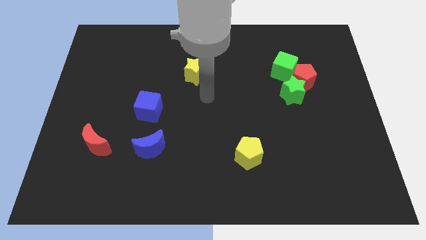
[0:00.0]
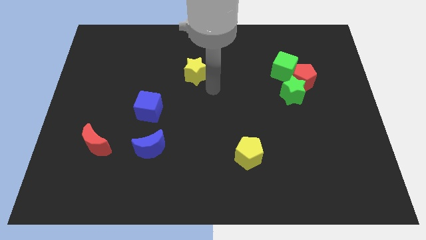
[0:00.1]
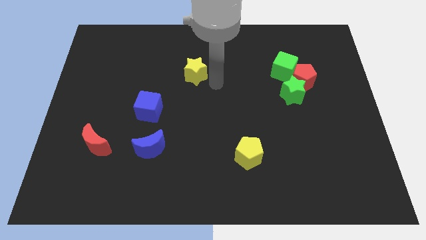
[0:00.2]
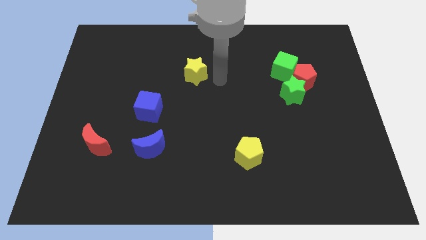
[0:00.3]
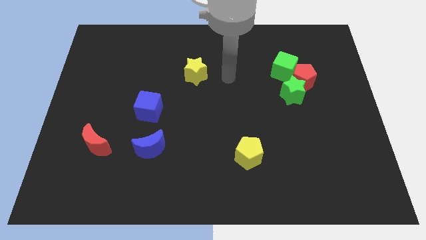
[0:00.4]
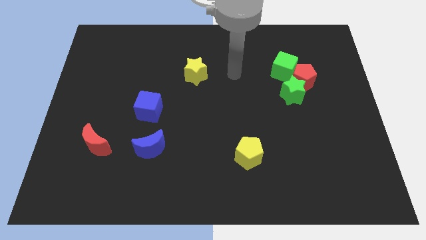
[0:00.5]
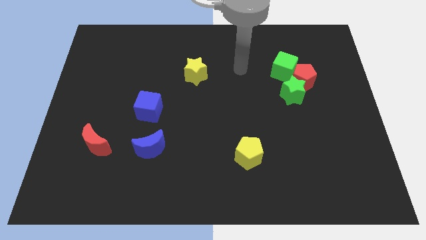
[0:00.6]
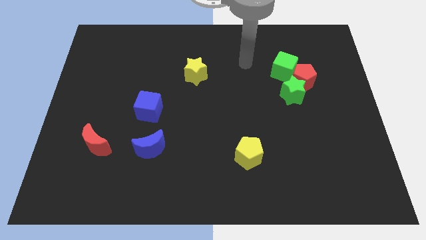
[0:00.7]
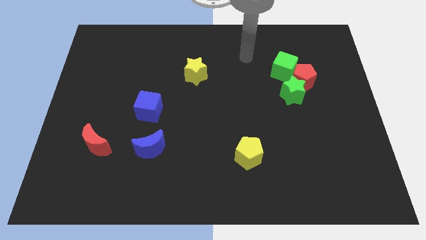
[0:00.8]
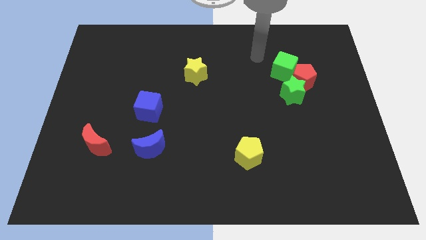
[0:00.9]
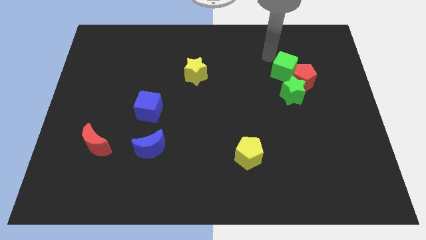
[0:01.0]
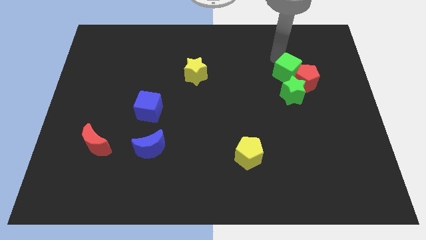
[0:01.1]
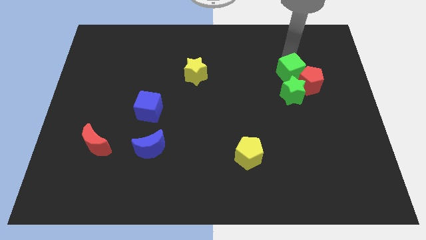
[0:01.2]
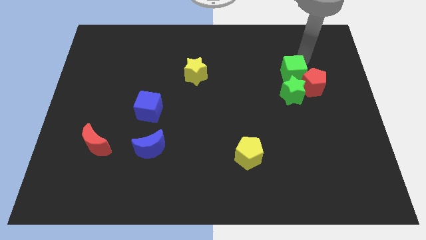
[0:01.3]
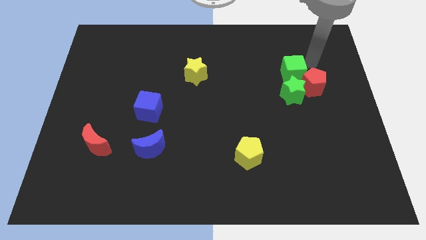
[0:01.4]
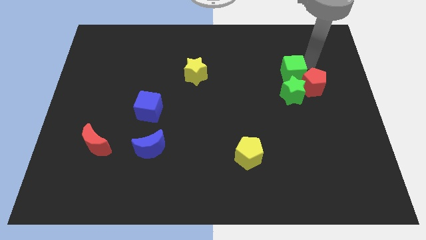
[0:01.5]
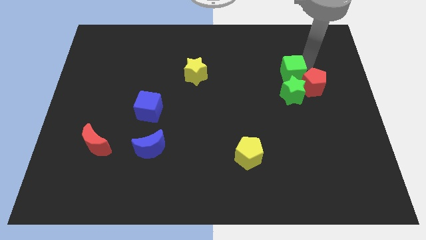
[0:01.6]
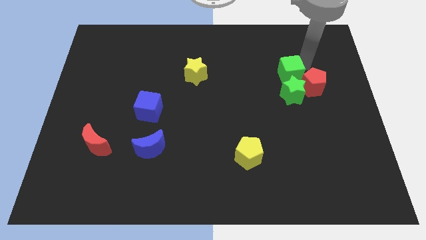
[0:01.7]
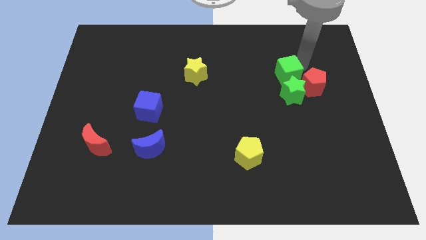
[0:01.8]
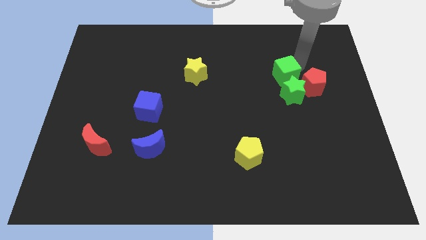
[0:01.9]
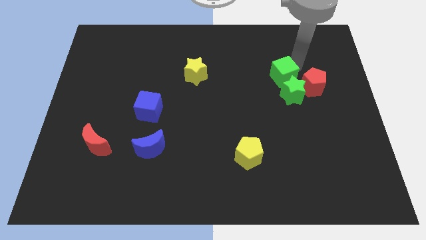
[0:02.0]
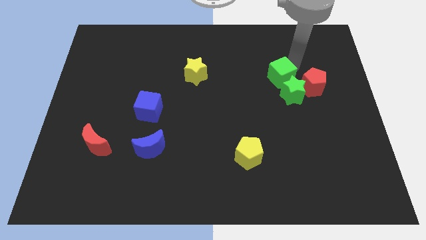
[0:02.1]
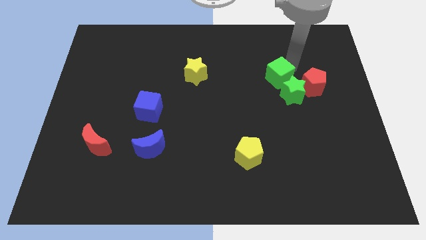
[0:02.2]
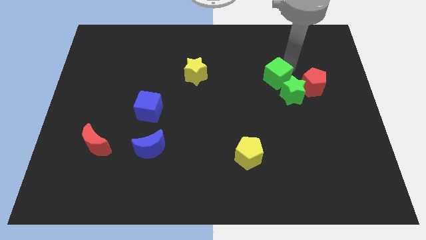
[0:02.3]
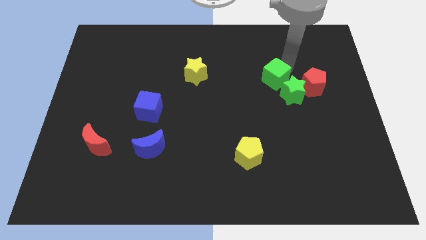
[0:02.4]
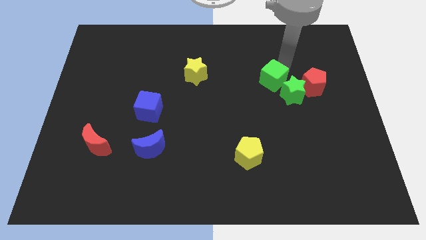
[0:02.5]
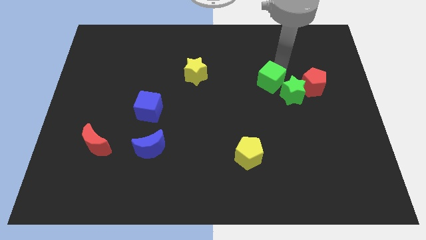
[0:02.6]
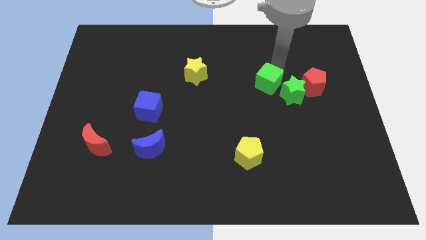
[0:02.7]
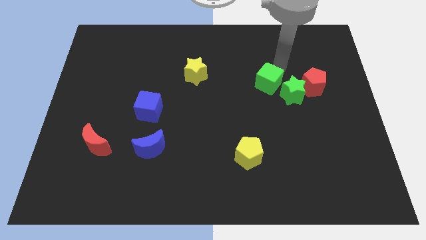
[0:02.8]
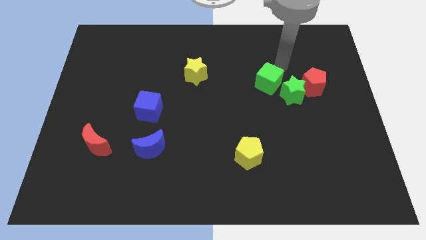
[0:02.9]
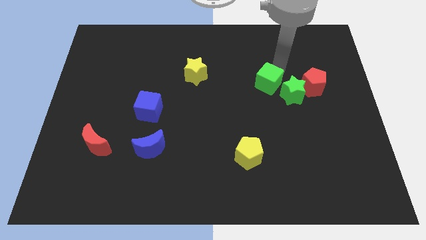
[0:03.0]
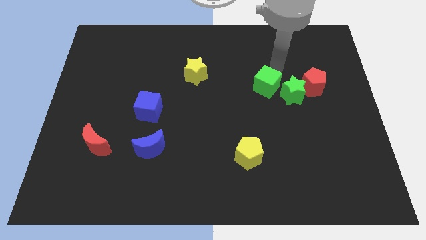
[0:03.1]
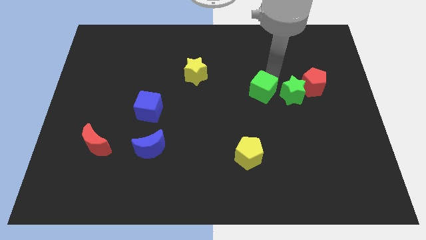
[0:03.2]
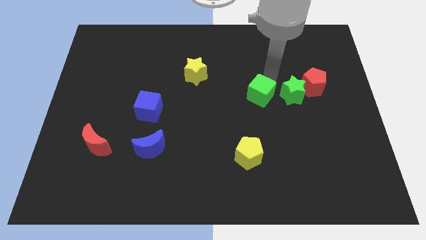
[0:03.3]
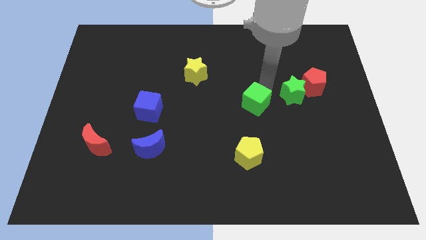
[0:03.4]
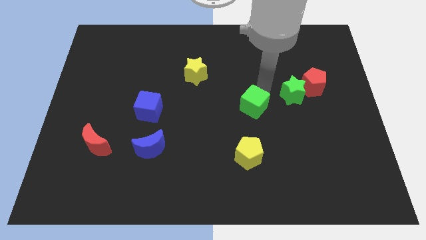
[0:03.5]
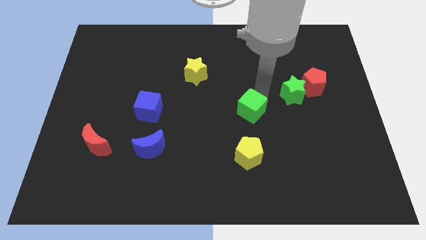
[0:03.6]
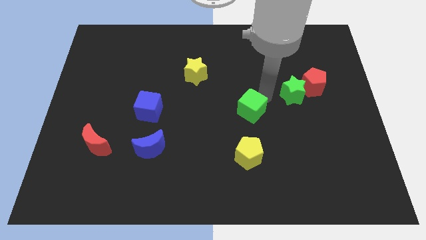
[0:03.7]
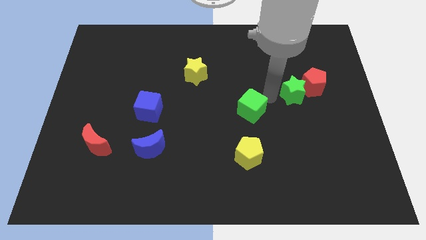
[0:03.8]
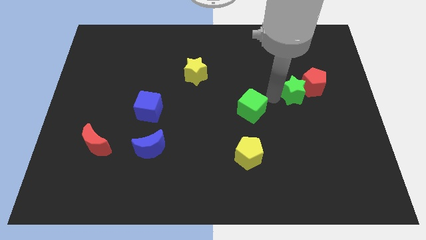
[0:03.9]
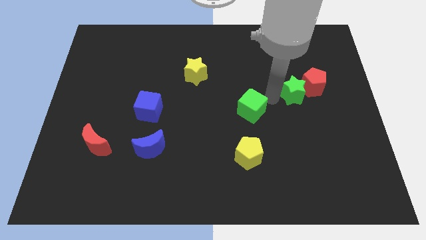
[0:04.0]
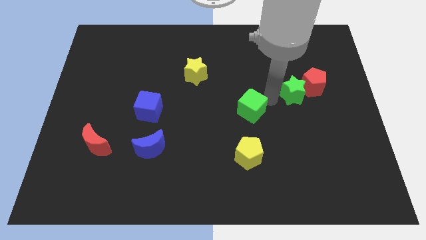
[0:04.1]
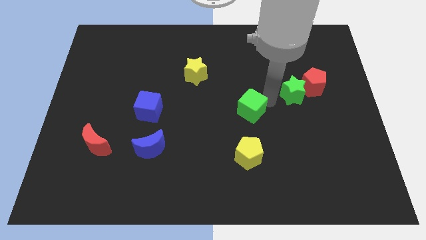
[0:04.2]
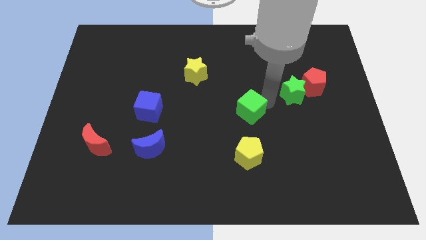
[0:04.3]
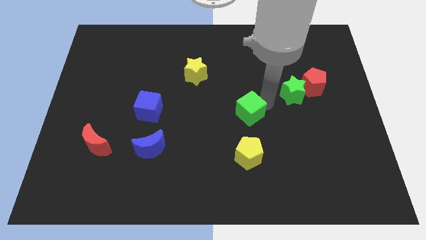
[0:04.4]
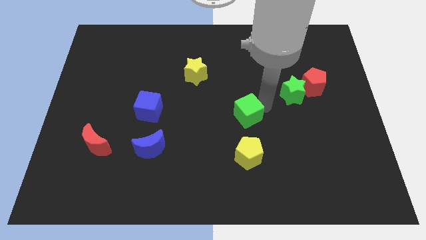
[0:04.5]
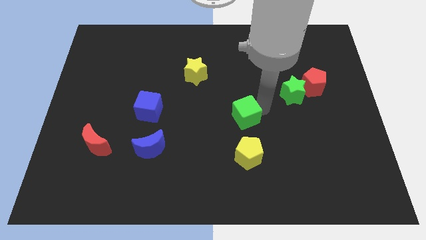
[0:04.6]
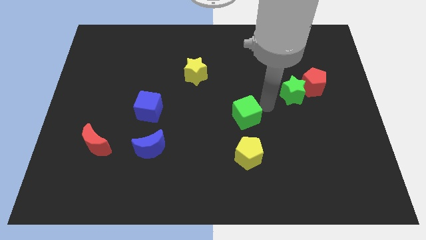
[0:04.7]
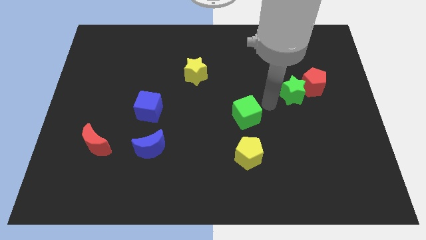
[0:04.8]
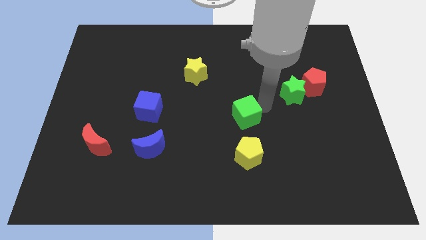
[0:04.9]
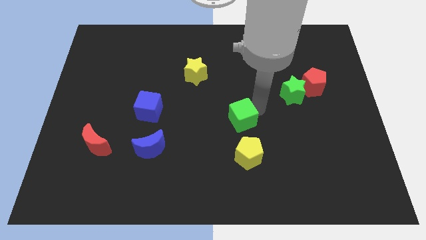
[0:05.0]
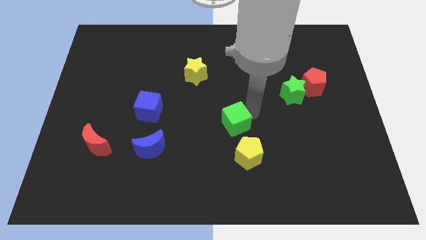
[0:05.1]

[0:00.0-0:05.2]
push the green cube downwards and left

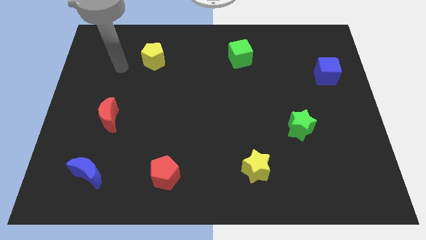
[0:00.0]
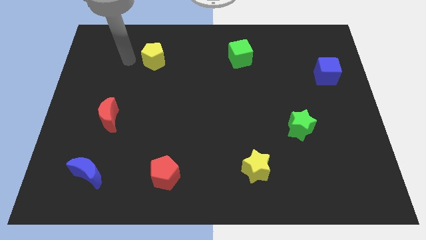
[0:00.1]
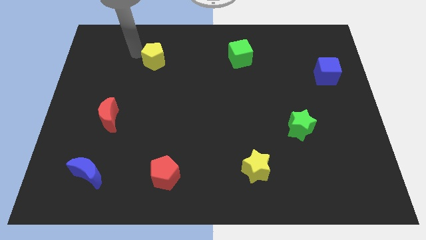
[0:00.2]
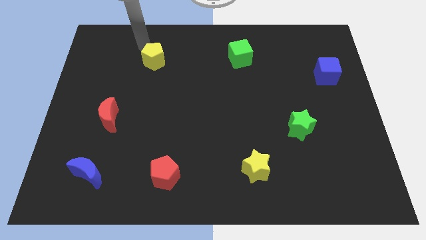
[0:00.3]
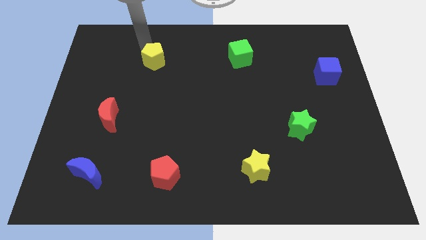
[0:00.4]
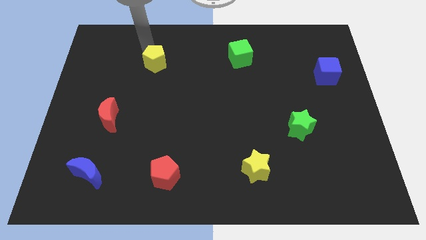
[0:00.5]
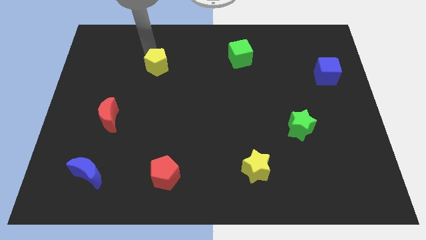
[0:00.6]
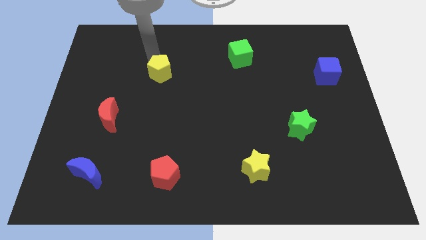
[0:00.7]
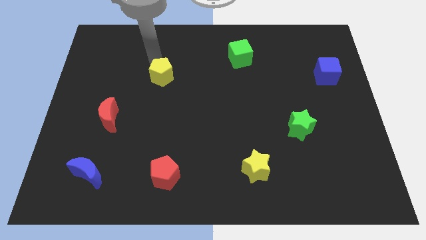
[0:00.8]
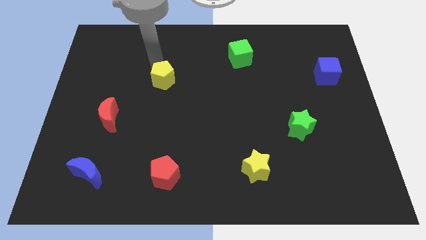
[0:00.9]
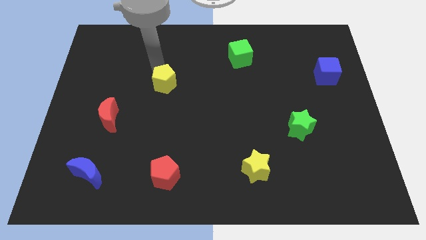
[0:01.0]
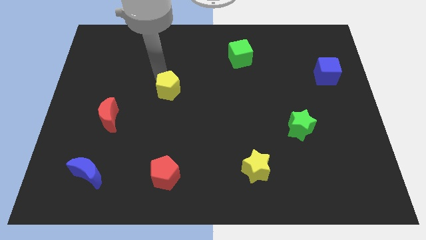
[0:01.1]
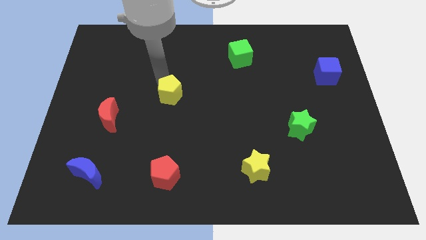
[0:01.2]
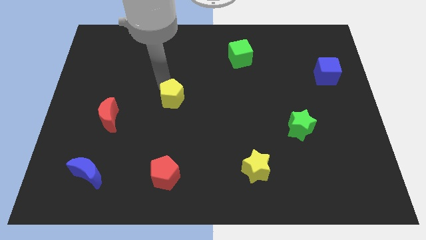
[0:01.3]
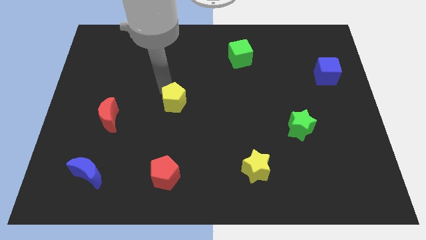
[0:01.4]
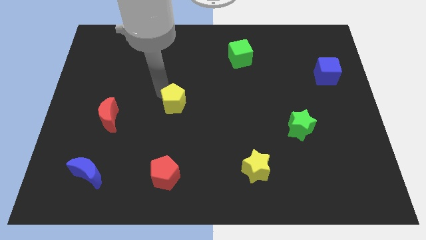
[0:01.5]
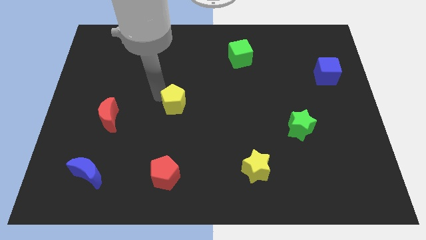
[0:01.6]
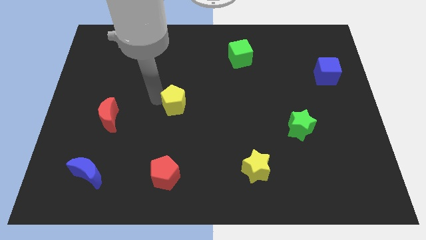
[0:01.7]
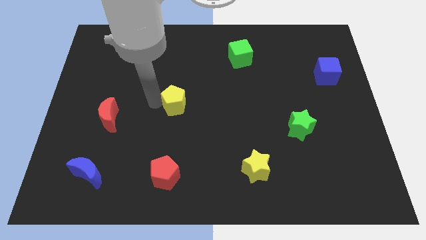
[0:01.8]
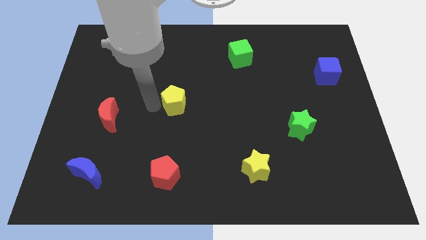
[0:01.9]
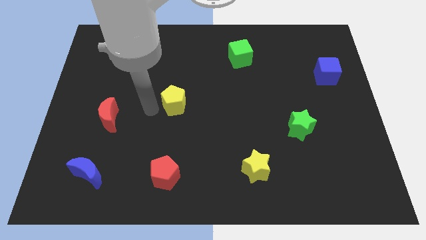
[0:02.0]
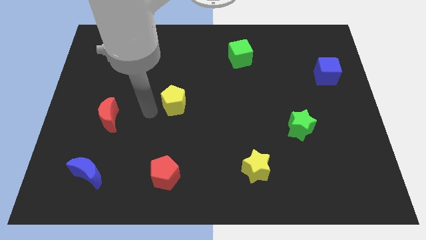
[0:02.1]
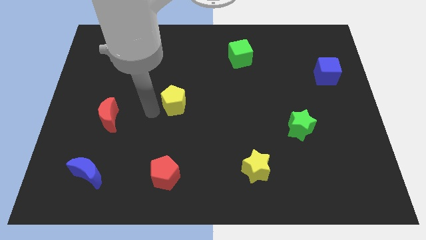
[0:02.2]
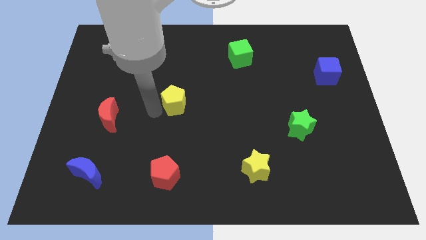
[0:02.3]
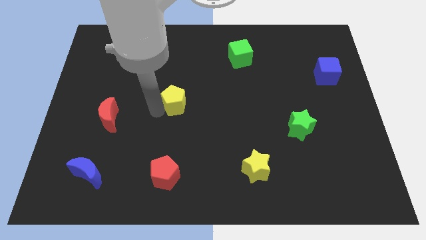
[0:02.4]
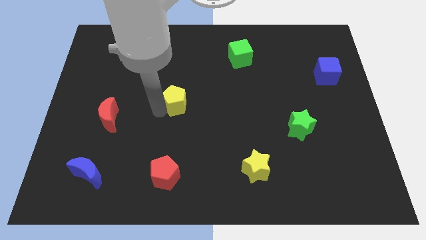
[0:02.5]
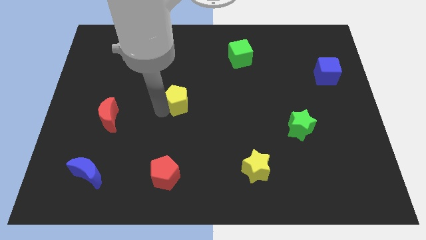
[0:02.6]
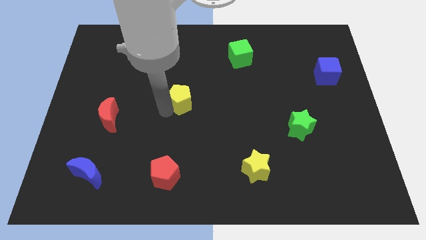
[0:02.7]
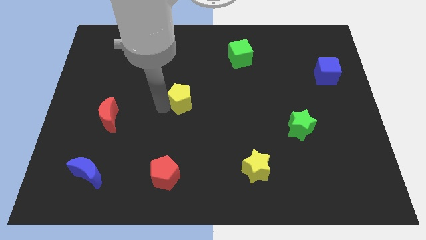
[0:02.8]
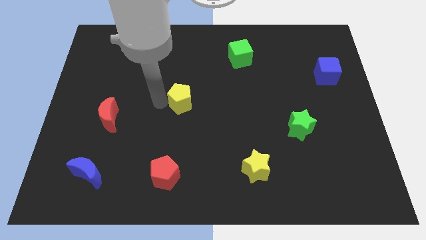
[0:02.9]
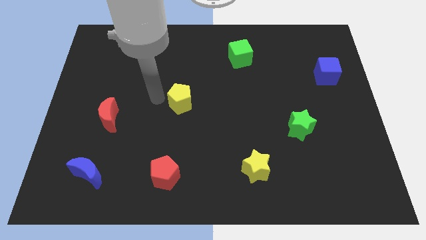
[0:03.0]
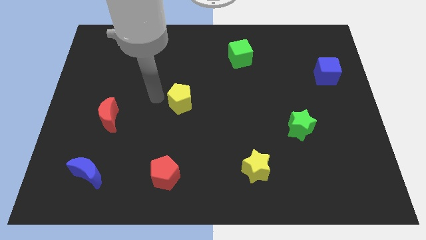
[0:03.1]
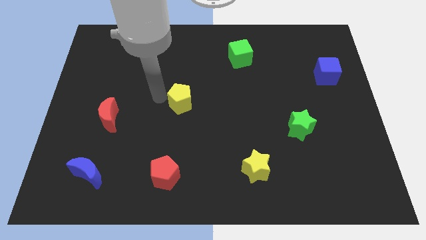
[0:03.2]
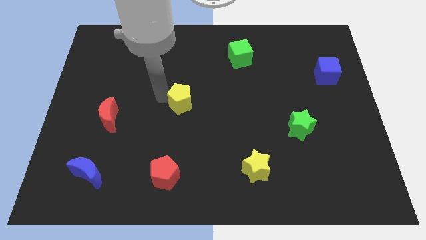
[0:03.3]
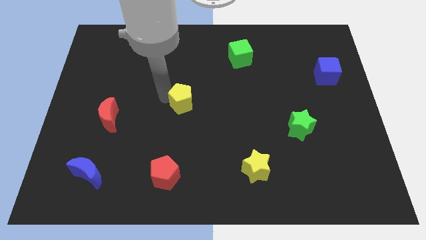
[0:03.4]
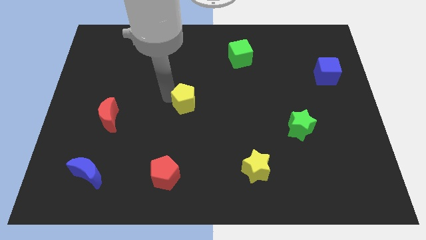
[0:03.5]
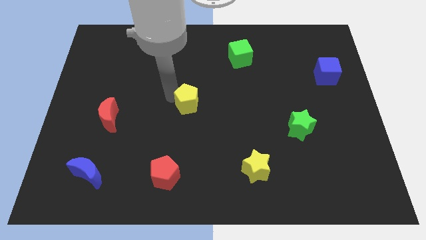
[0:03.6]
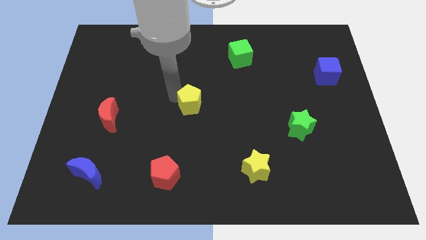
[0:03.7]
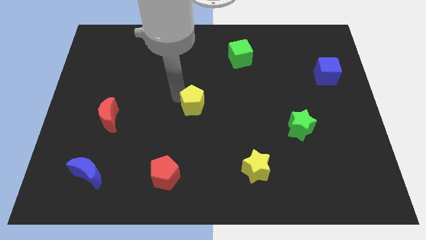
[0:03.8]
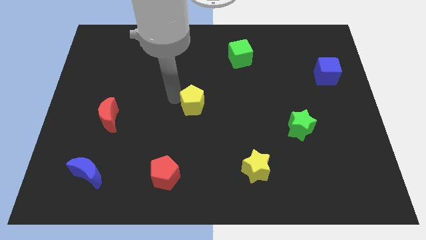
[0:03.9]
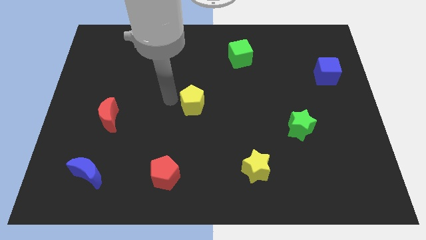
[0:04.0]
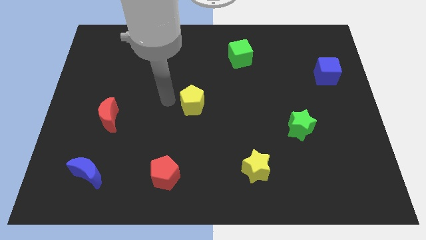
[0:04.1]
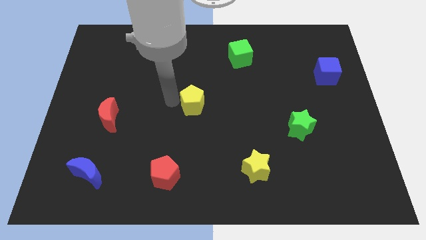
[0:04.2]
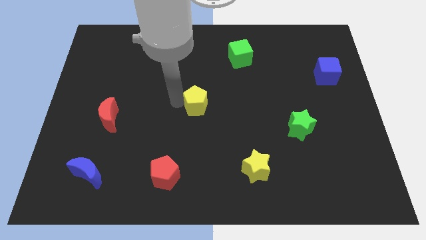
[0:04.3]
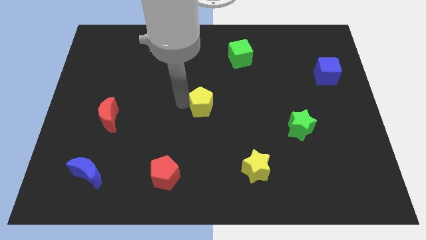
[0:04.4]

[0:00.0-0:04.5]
slide the yellow pentagon diagonally down and right
